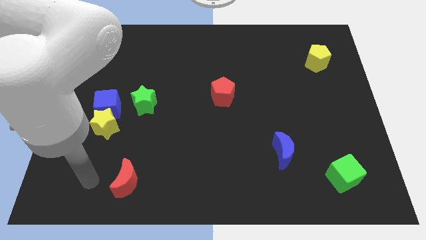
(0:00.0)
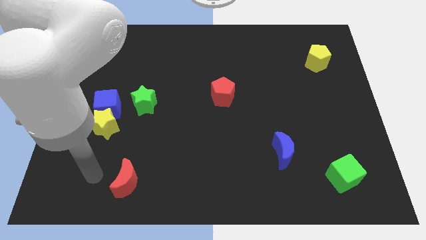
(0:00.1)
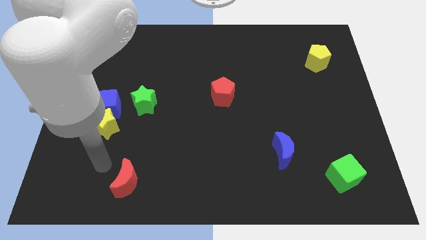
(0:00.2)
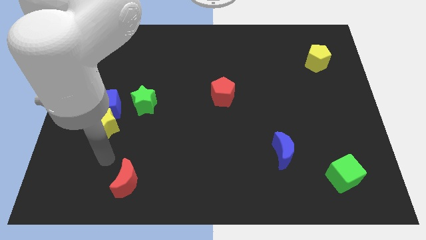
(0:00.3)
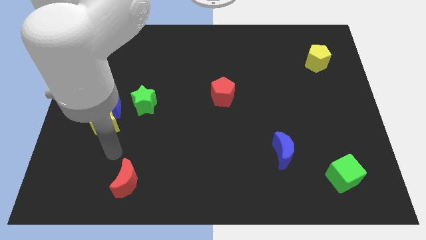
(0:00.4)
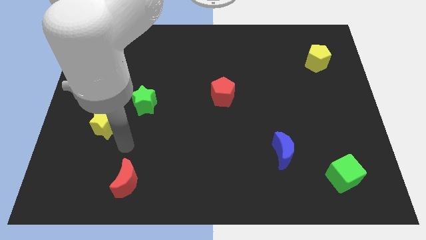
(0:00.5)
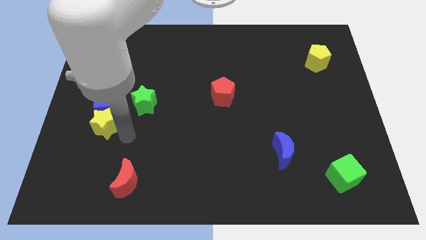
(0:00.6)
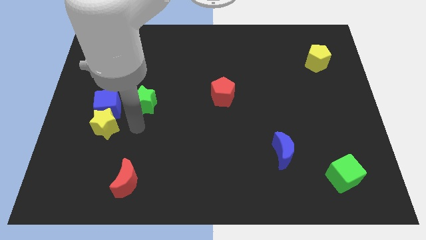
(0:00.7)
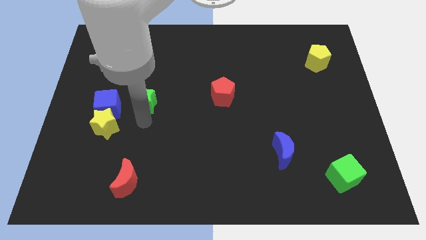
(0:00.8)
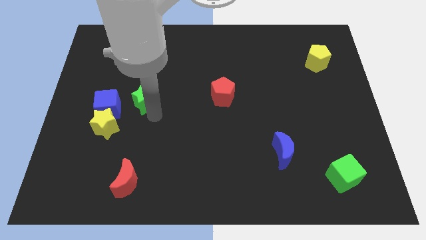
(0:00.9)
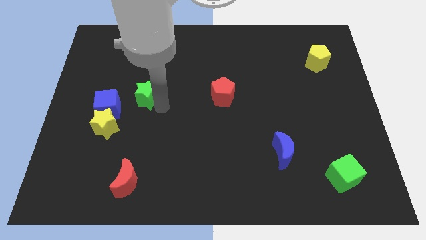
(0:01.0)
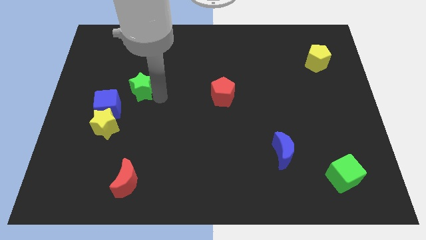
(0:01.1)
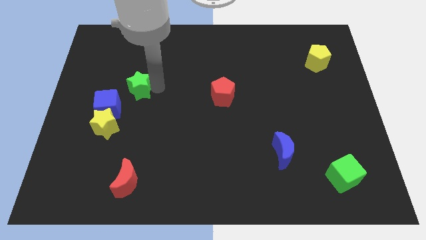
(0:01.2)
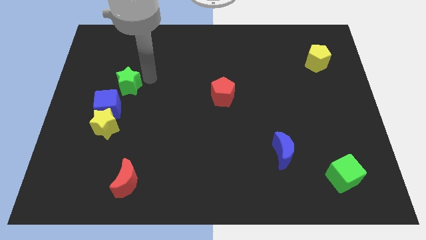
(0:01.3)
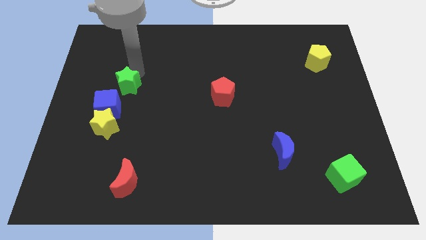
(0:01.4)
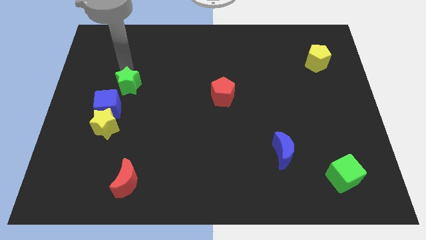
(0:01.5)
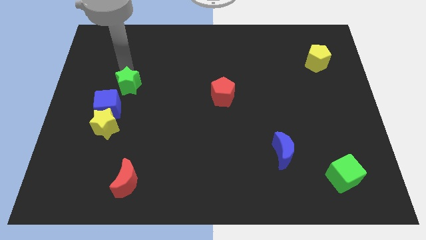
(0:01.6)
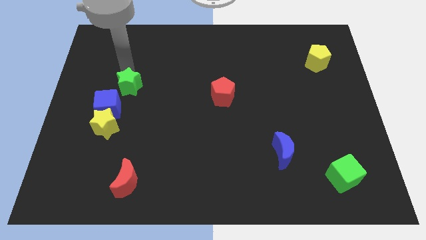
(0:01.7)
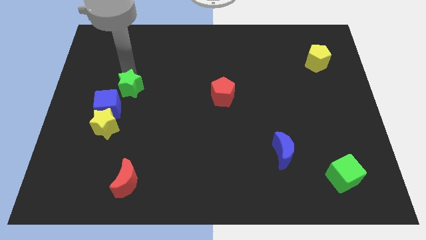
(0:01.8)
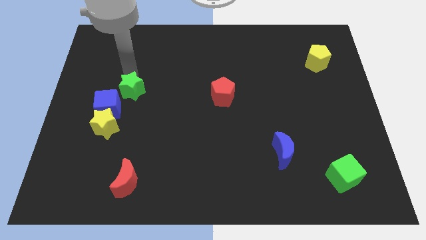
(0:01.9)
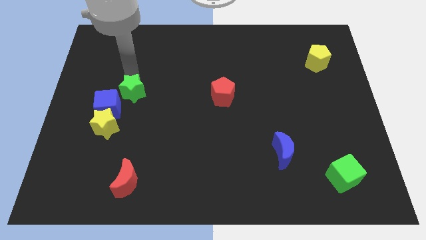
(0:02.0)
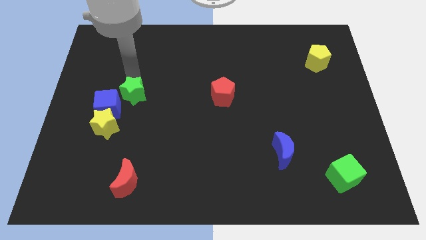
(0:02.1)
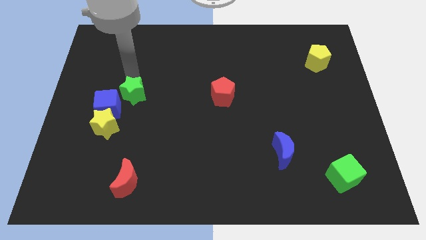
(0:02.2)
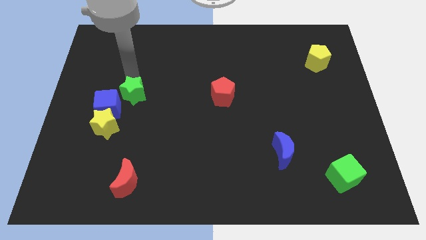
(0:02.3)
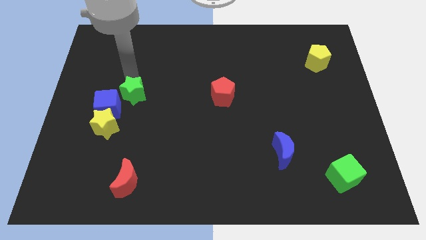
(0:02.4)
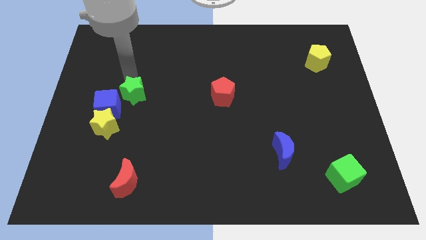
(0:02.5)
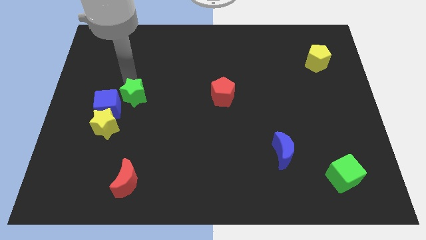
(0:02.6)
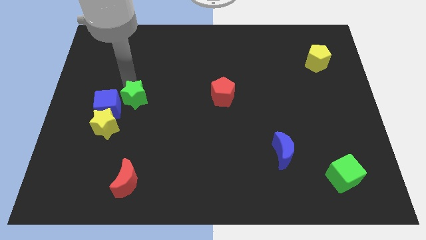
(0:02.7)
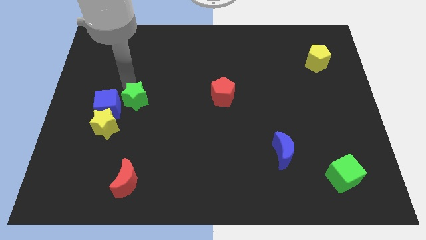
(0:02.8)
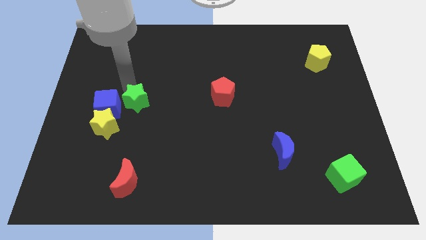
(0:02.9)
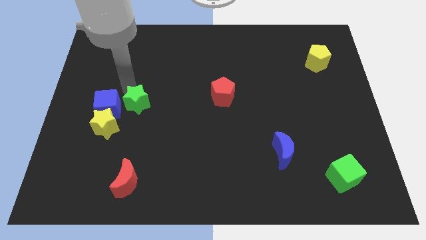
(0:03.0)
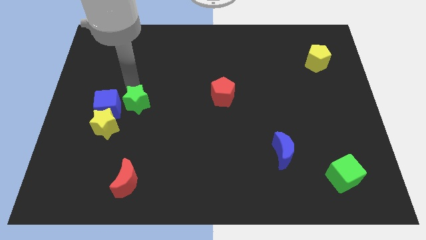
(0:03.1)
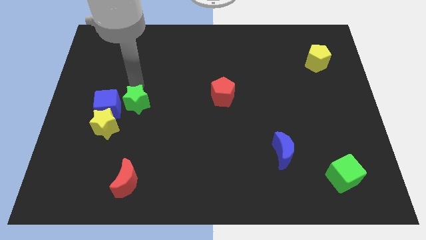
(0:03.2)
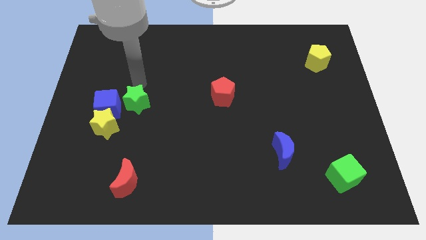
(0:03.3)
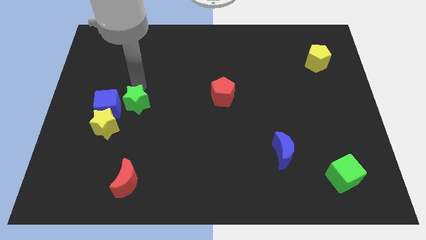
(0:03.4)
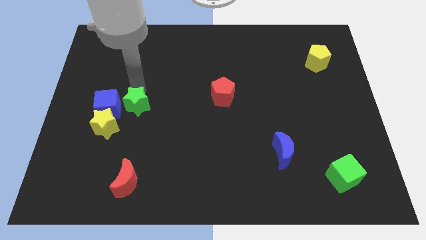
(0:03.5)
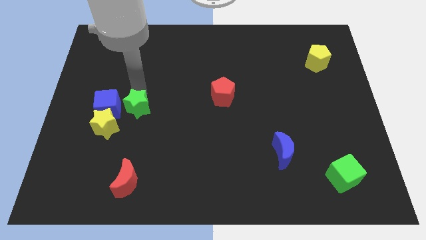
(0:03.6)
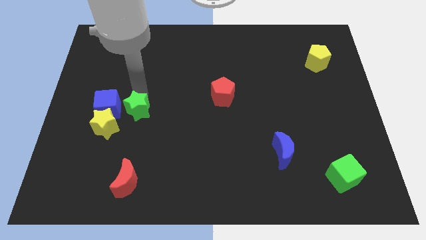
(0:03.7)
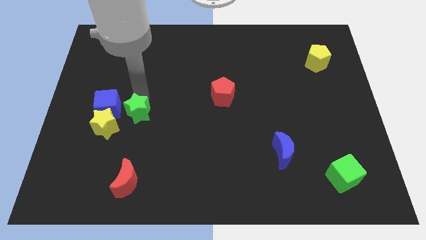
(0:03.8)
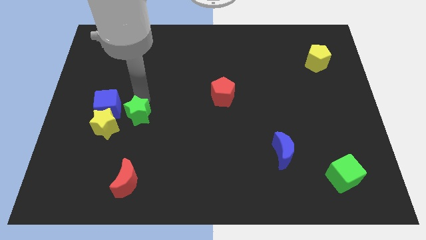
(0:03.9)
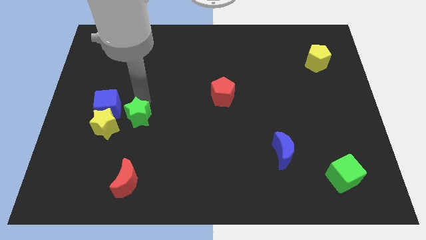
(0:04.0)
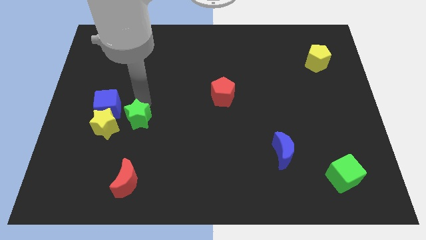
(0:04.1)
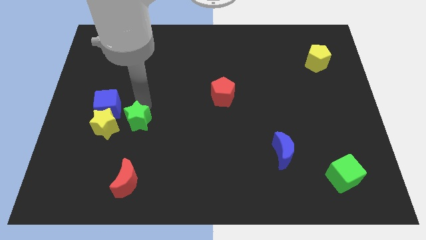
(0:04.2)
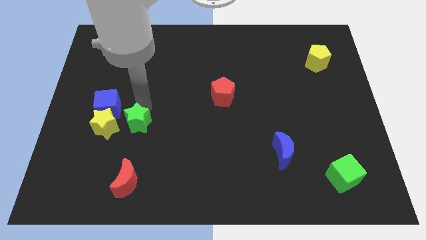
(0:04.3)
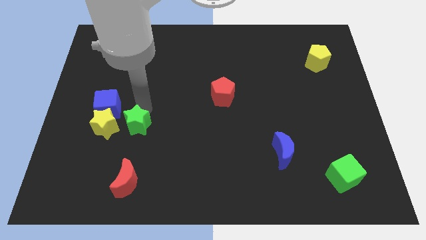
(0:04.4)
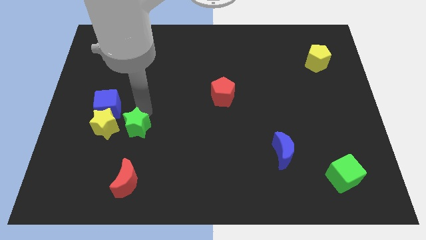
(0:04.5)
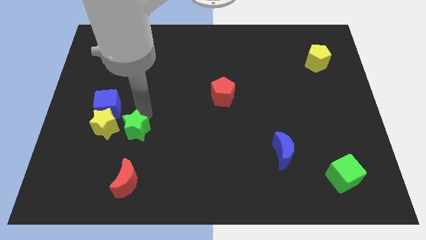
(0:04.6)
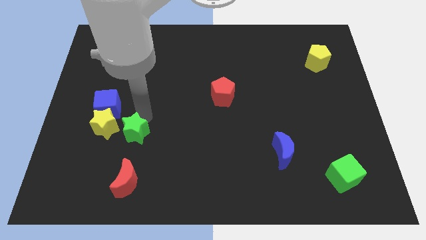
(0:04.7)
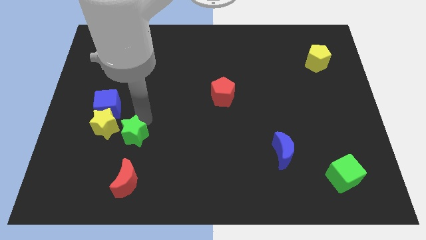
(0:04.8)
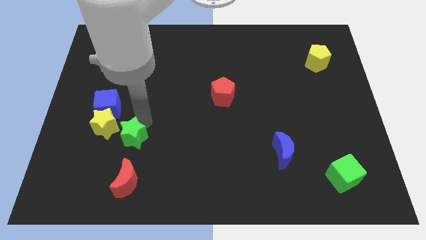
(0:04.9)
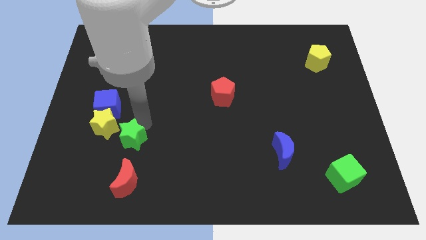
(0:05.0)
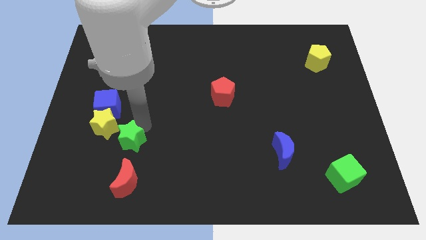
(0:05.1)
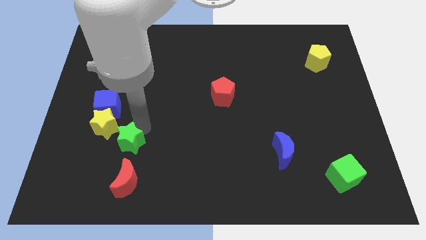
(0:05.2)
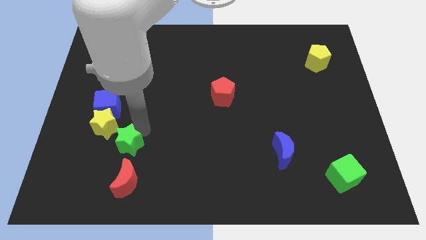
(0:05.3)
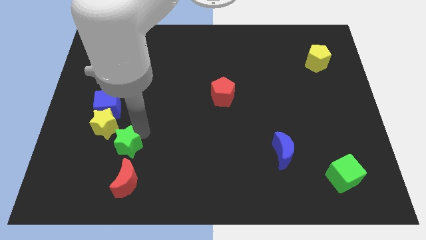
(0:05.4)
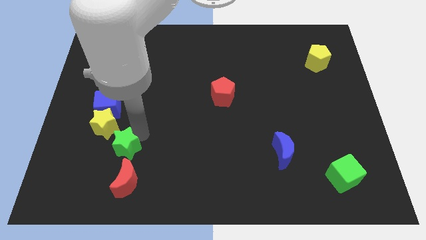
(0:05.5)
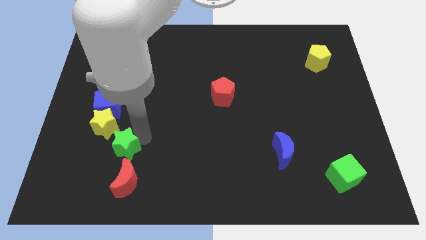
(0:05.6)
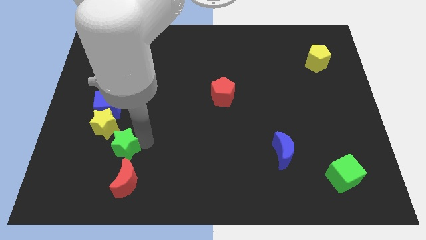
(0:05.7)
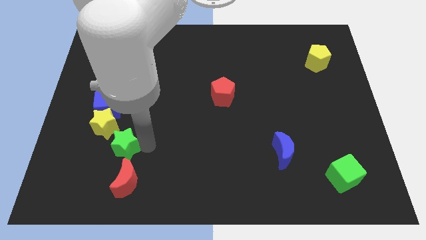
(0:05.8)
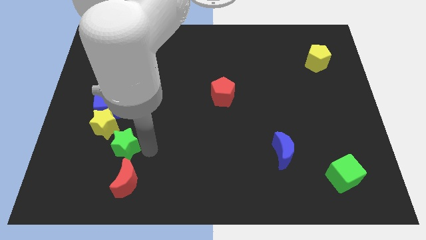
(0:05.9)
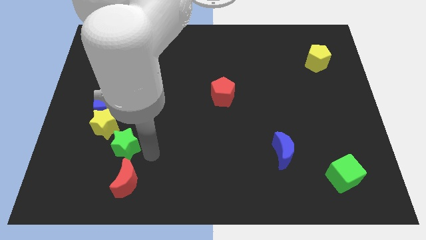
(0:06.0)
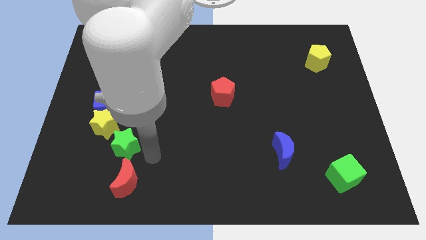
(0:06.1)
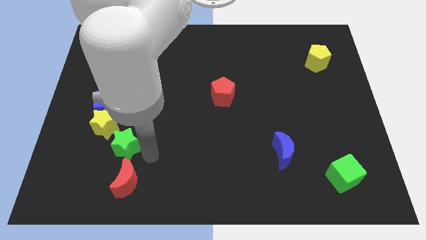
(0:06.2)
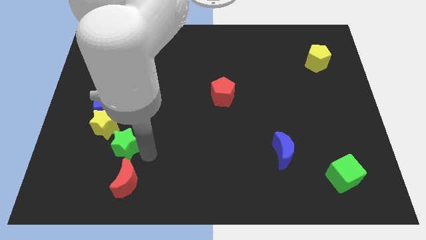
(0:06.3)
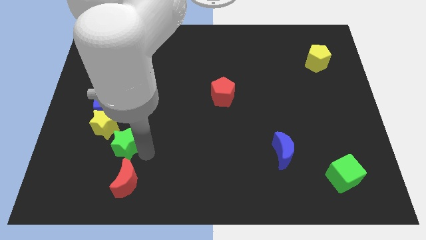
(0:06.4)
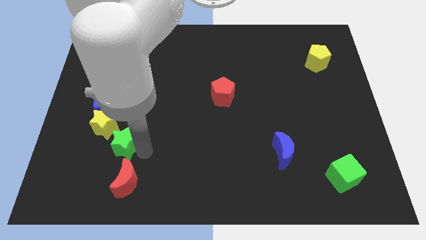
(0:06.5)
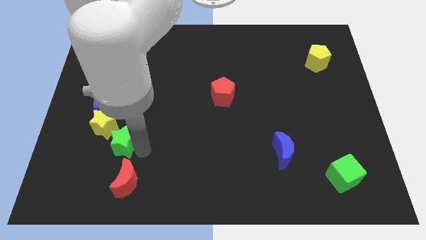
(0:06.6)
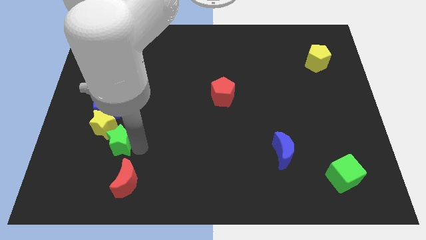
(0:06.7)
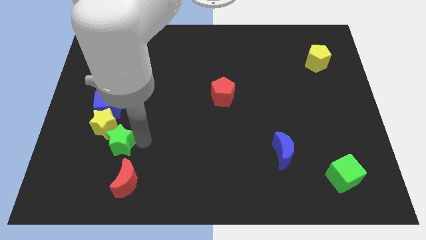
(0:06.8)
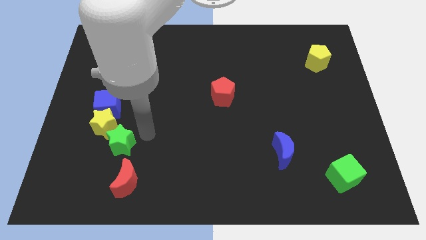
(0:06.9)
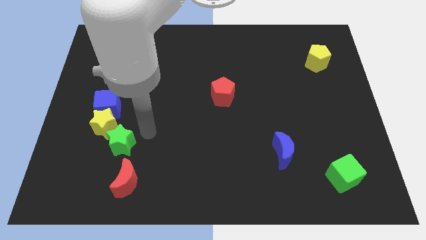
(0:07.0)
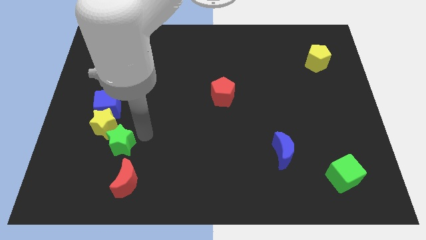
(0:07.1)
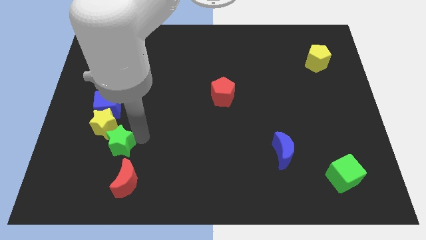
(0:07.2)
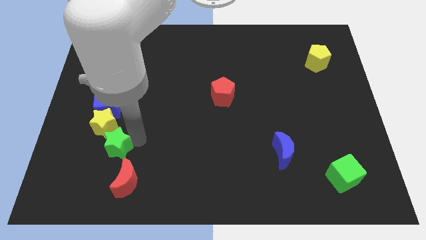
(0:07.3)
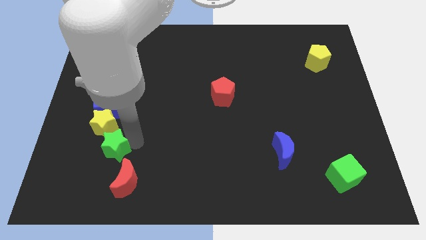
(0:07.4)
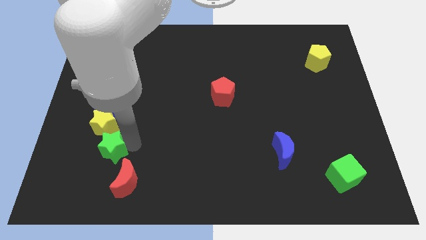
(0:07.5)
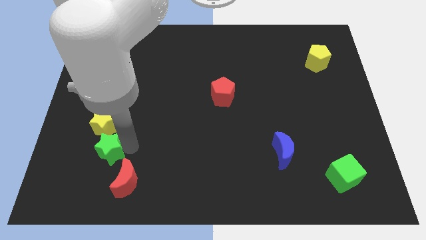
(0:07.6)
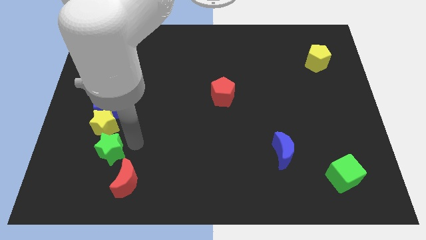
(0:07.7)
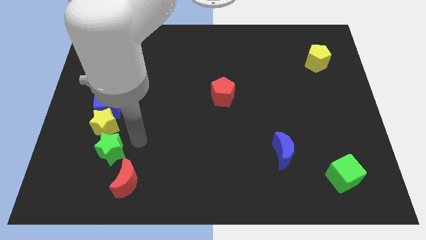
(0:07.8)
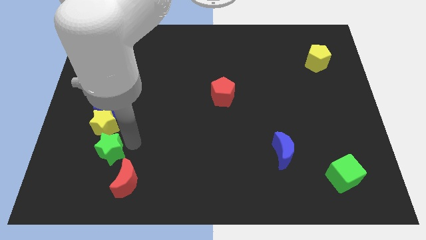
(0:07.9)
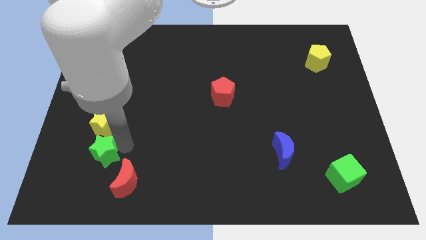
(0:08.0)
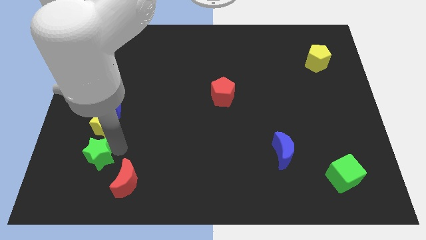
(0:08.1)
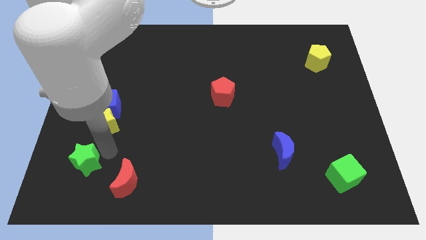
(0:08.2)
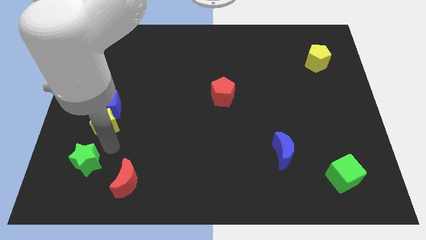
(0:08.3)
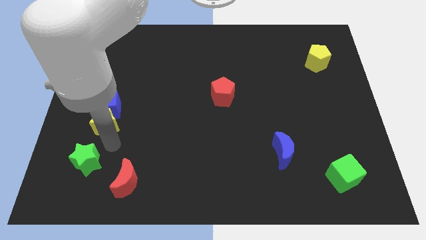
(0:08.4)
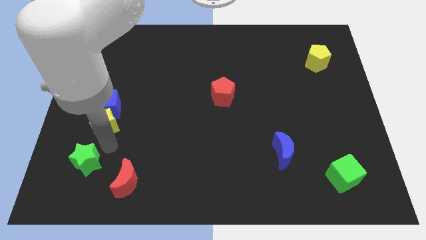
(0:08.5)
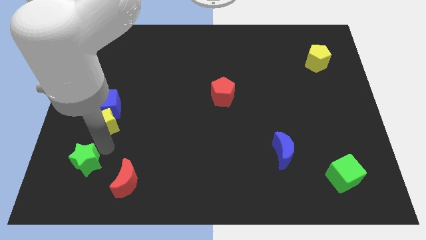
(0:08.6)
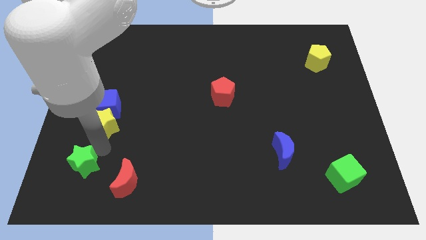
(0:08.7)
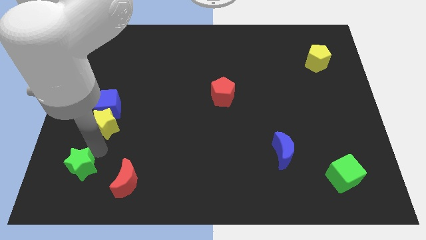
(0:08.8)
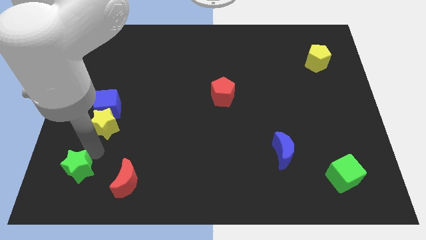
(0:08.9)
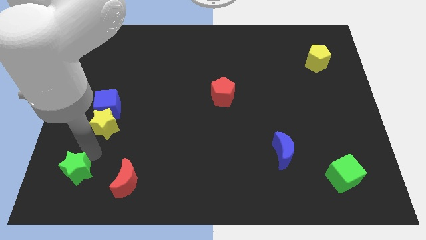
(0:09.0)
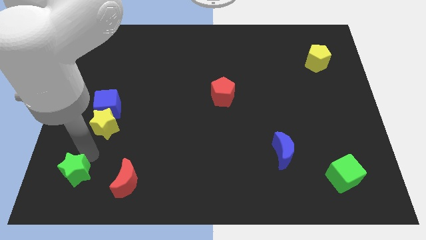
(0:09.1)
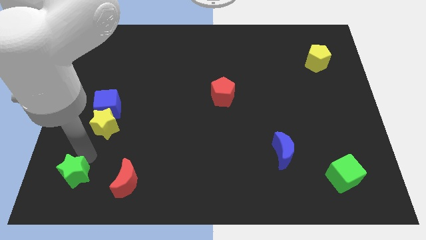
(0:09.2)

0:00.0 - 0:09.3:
slide the green star to the bottom left
